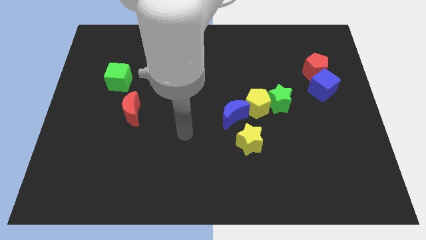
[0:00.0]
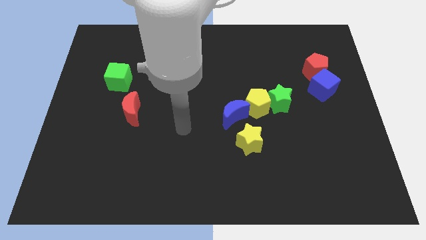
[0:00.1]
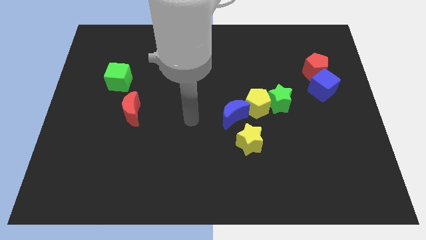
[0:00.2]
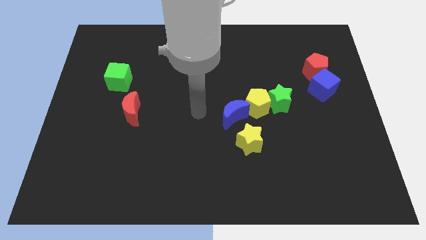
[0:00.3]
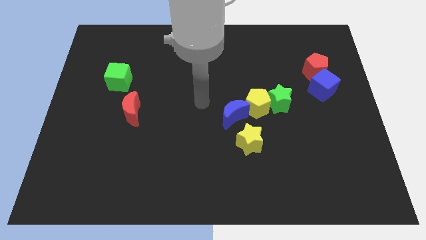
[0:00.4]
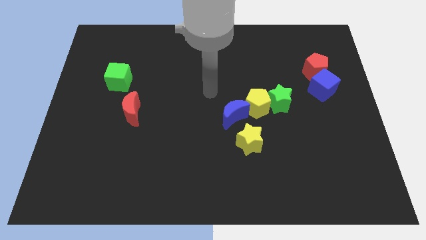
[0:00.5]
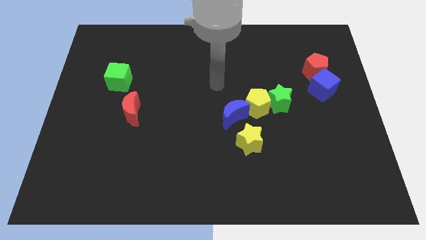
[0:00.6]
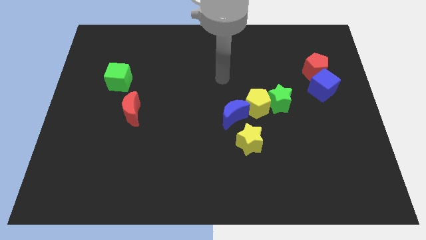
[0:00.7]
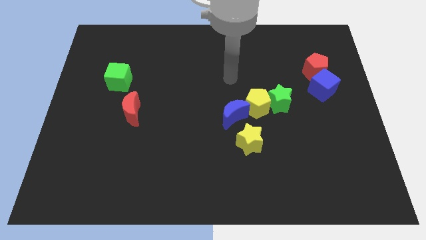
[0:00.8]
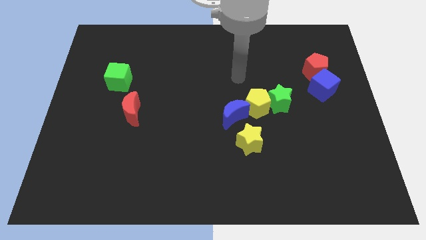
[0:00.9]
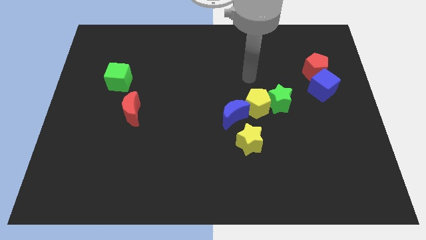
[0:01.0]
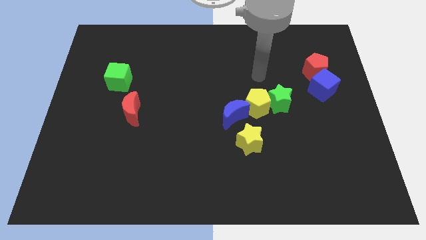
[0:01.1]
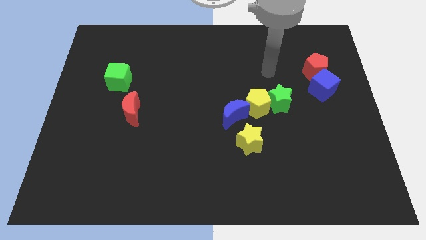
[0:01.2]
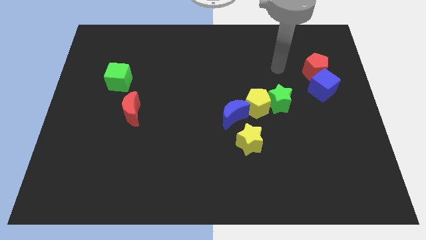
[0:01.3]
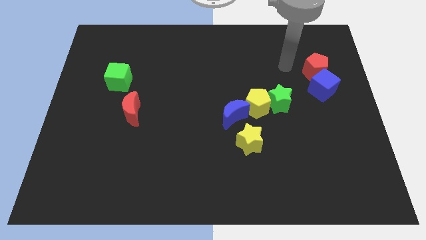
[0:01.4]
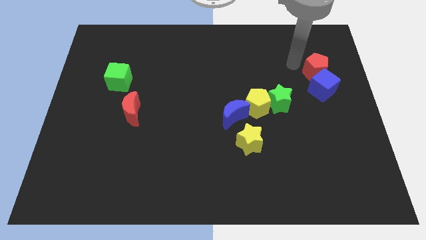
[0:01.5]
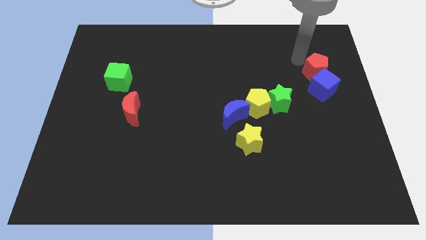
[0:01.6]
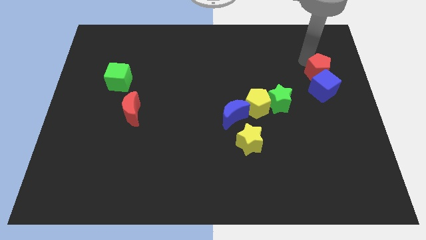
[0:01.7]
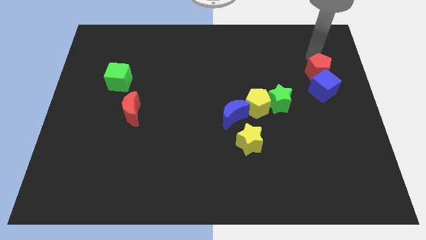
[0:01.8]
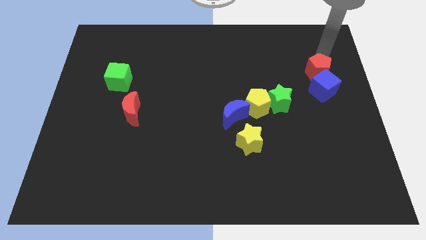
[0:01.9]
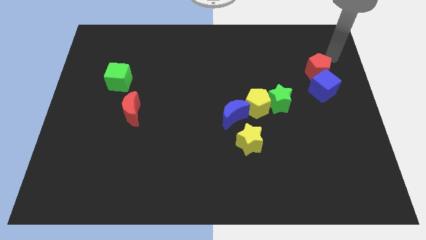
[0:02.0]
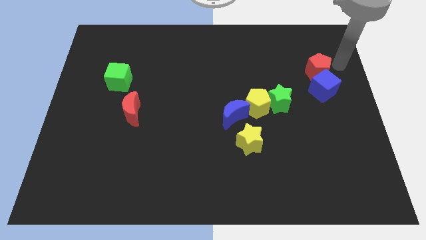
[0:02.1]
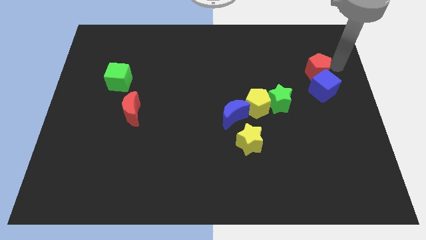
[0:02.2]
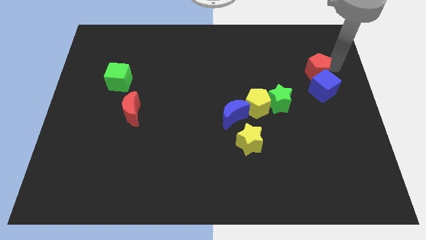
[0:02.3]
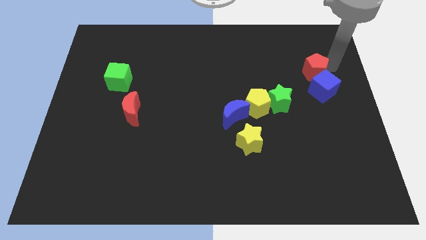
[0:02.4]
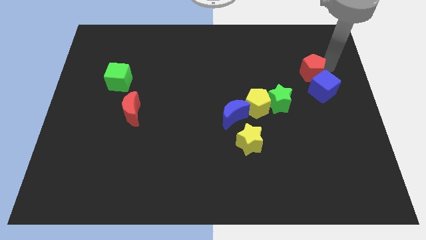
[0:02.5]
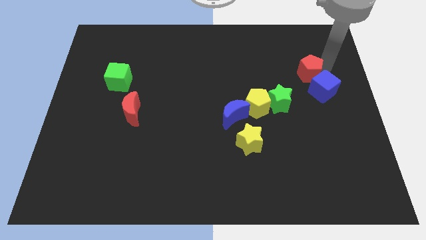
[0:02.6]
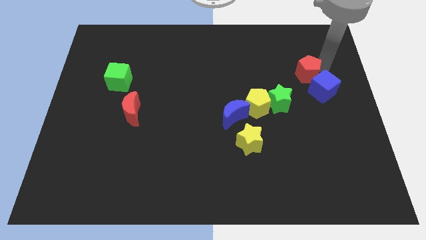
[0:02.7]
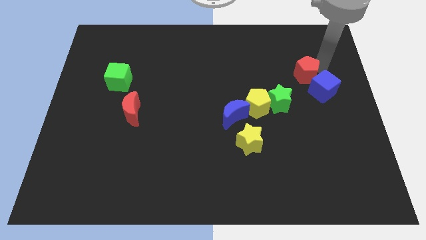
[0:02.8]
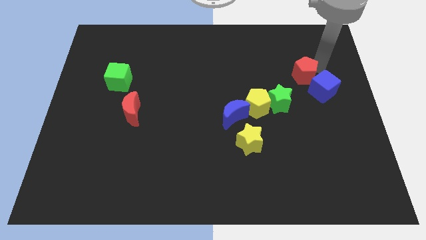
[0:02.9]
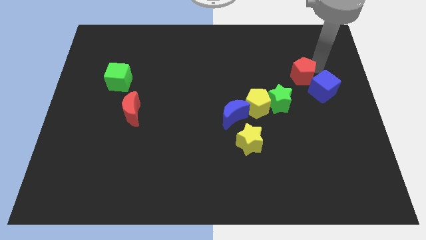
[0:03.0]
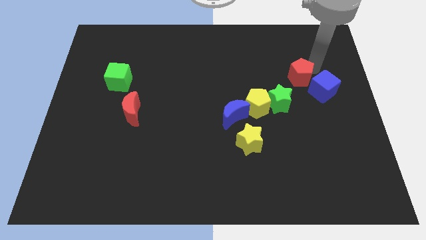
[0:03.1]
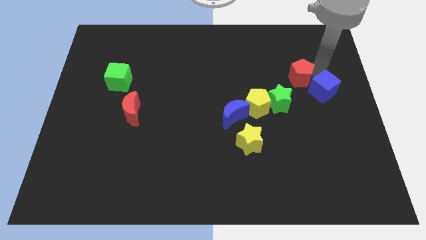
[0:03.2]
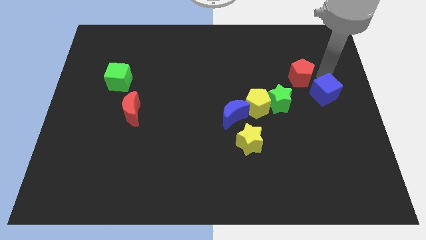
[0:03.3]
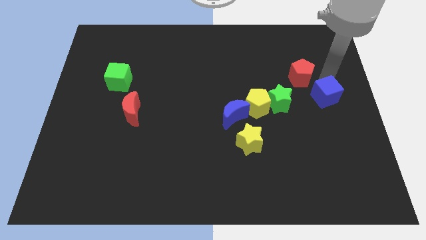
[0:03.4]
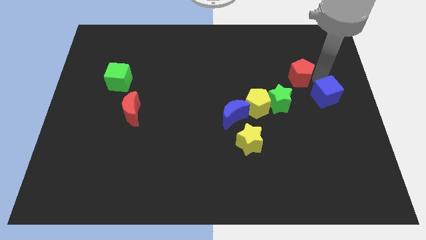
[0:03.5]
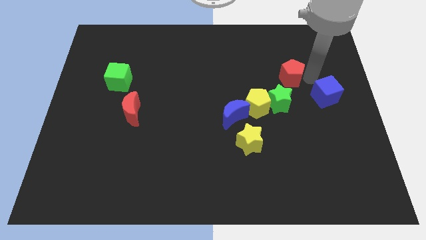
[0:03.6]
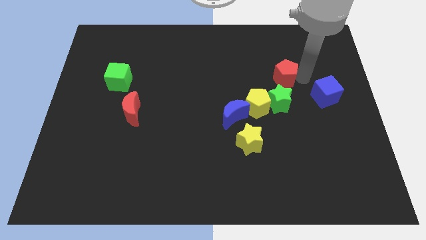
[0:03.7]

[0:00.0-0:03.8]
slide the red pentagon a bit left

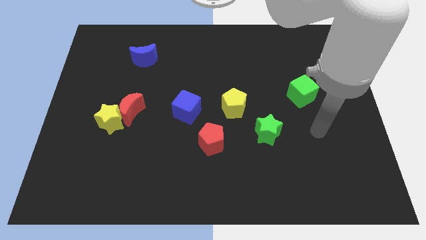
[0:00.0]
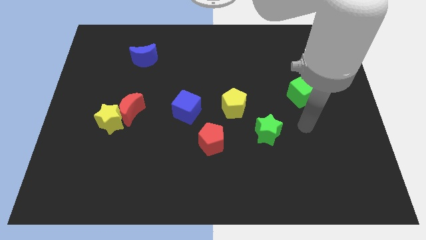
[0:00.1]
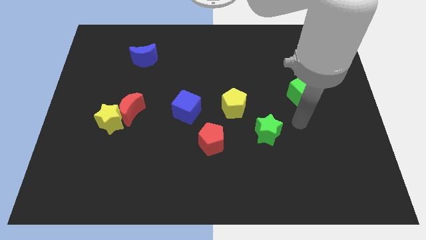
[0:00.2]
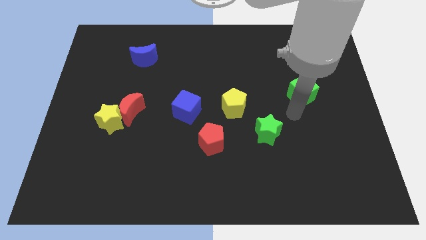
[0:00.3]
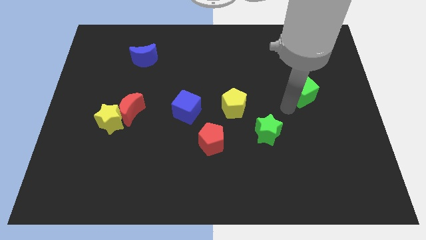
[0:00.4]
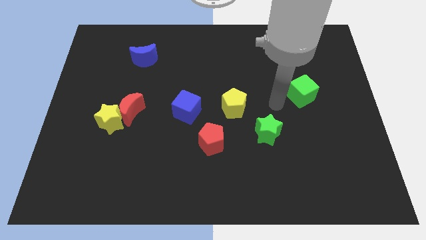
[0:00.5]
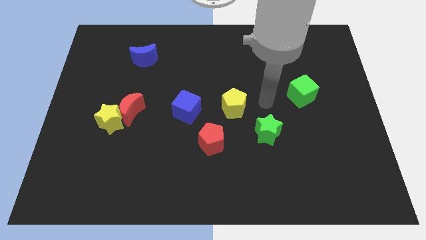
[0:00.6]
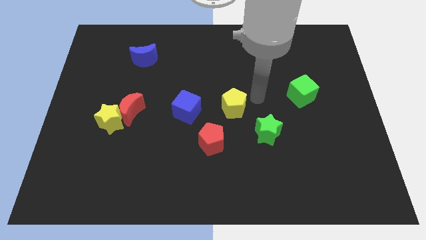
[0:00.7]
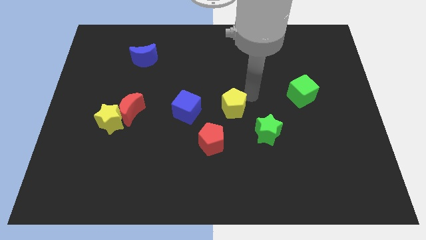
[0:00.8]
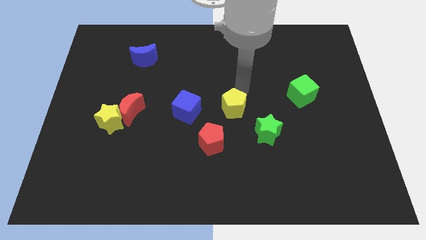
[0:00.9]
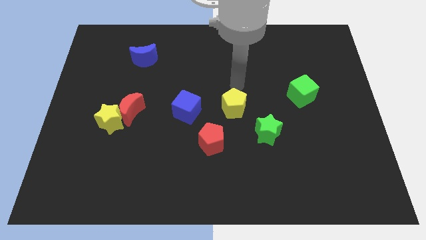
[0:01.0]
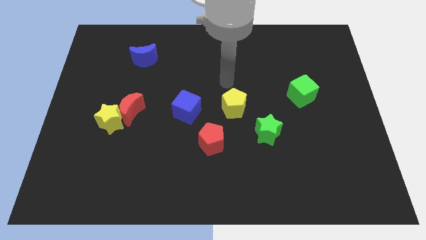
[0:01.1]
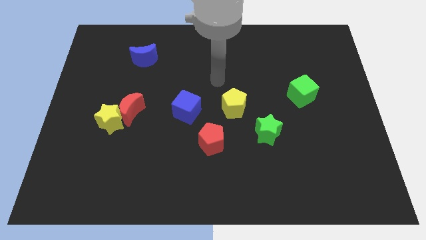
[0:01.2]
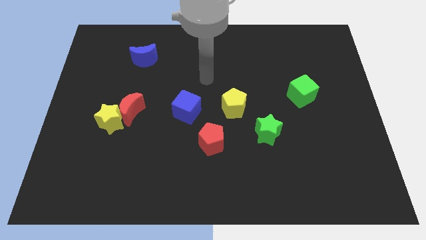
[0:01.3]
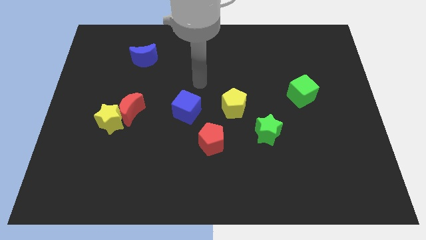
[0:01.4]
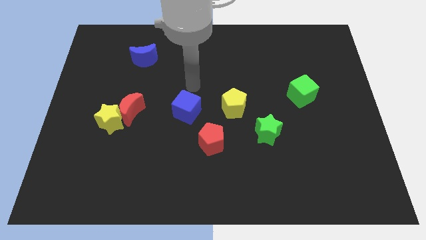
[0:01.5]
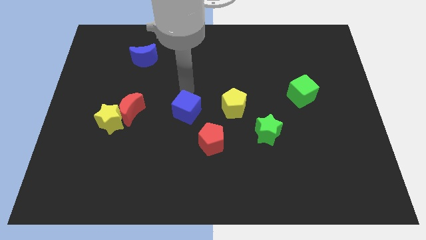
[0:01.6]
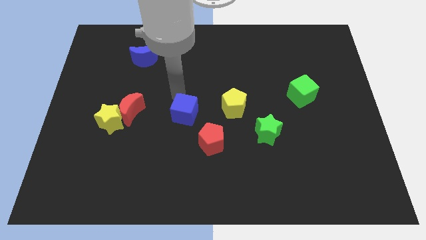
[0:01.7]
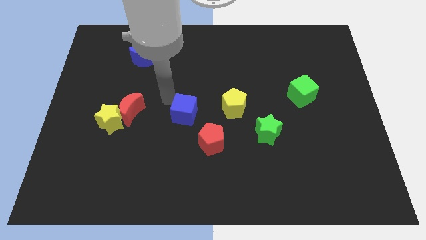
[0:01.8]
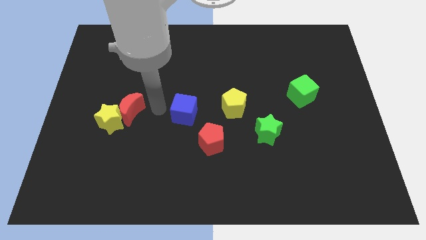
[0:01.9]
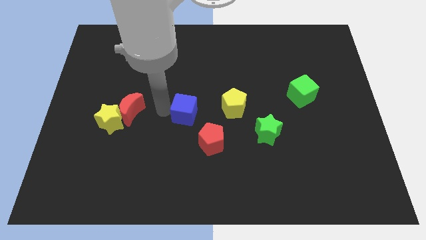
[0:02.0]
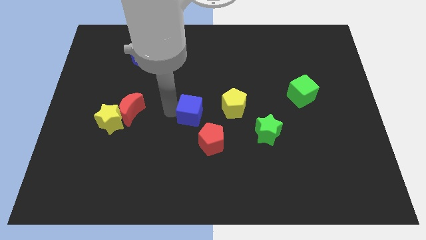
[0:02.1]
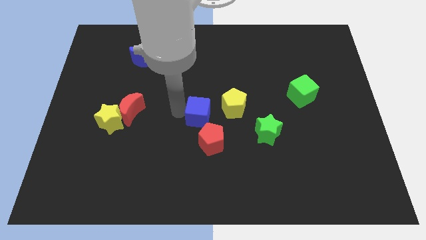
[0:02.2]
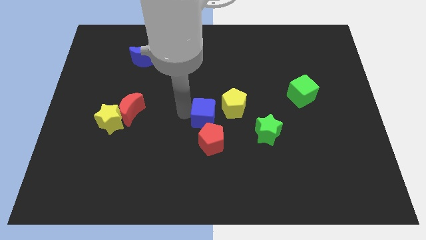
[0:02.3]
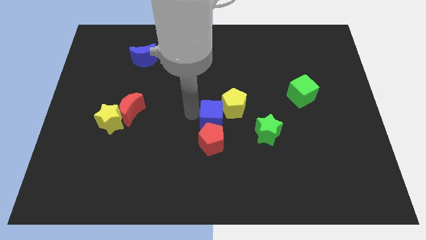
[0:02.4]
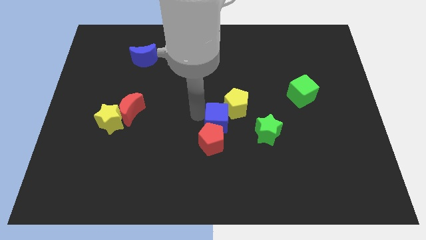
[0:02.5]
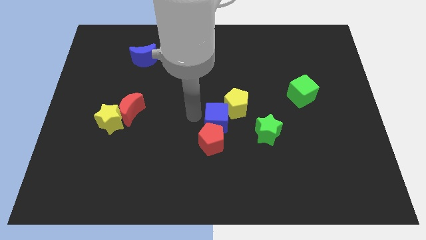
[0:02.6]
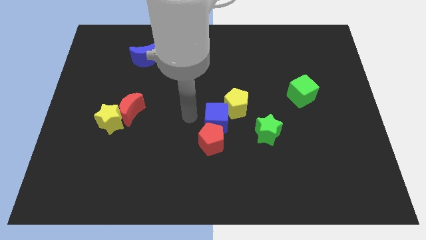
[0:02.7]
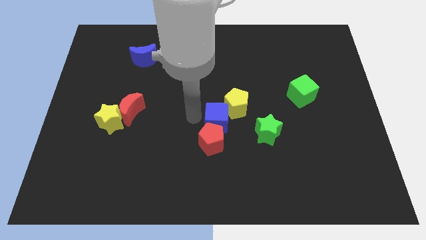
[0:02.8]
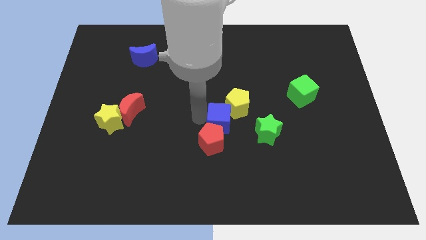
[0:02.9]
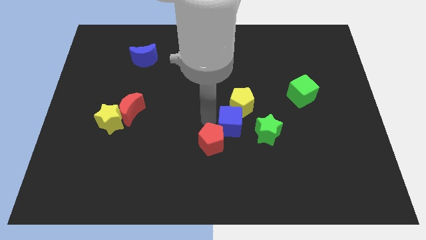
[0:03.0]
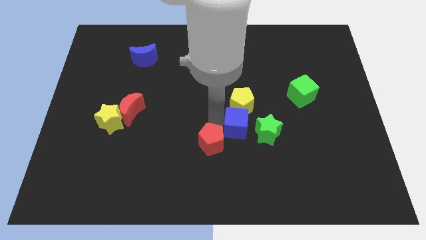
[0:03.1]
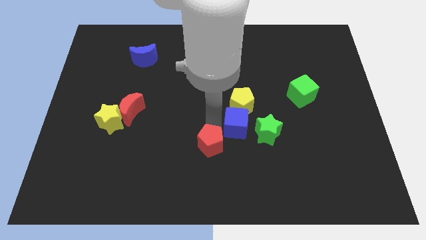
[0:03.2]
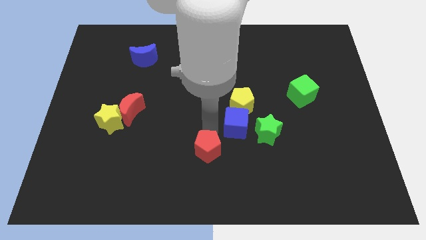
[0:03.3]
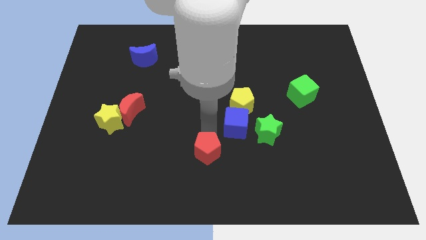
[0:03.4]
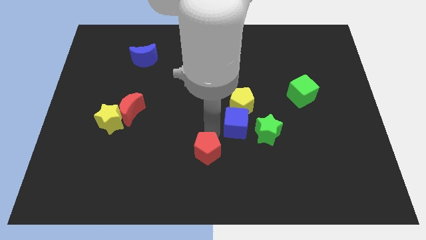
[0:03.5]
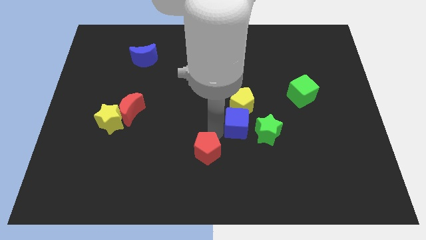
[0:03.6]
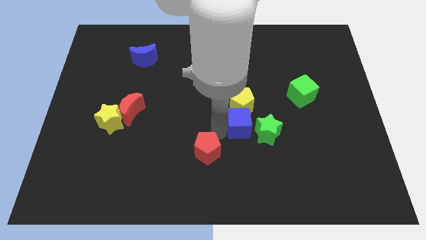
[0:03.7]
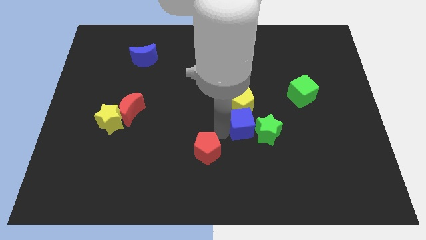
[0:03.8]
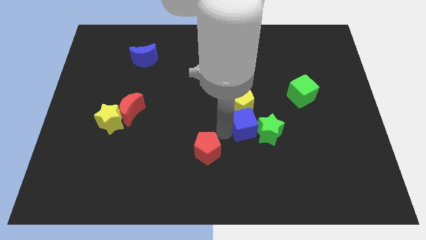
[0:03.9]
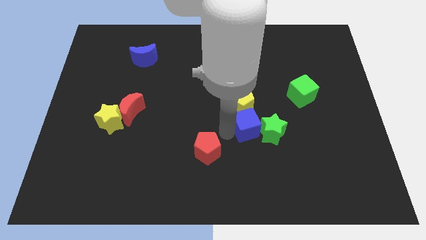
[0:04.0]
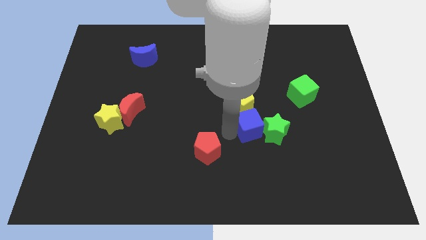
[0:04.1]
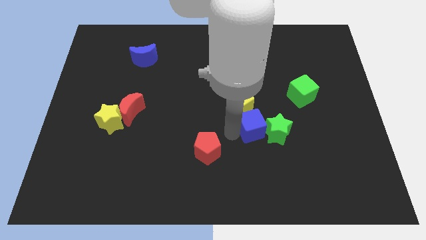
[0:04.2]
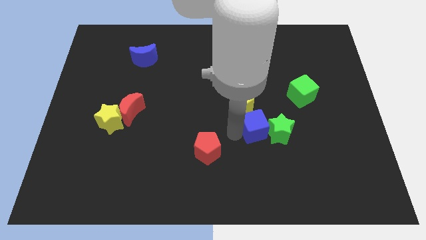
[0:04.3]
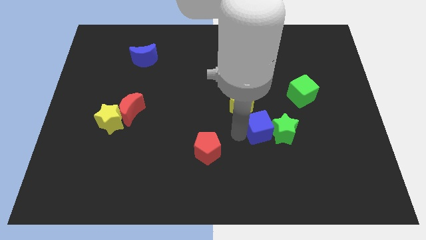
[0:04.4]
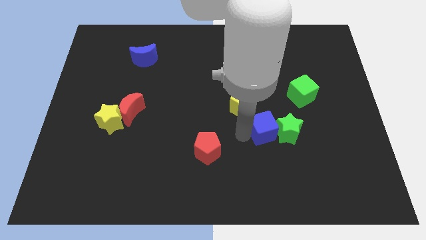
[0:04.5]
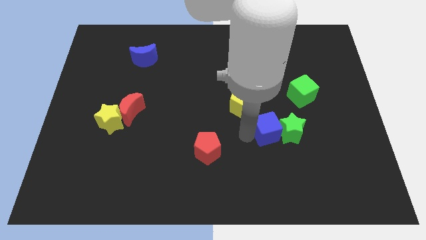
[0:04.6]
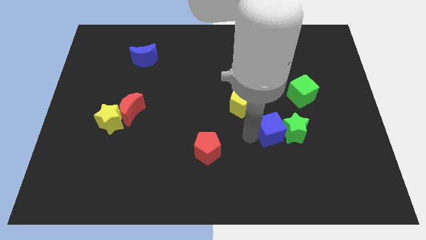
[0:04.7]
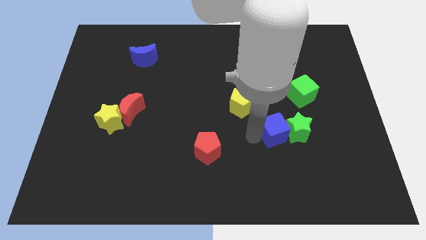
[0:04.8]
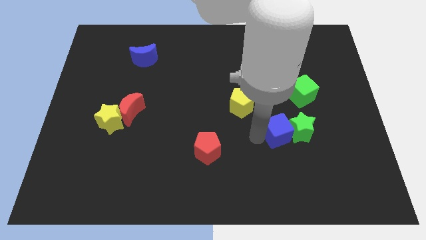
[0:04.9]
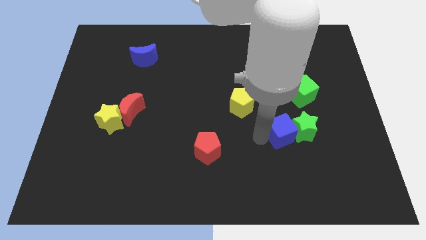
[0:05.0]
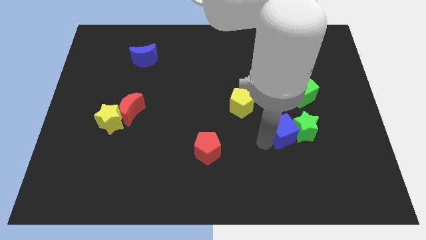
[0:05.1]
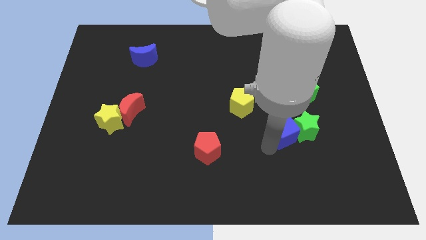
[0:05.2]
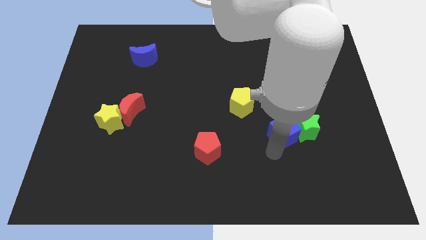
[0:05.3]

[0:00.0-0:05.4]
push the blue cube right
